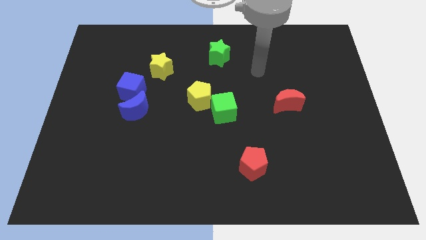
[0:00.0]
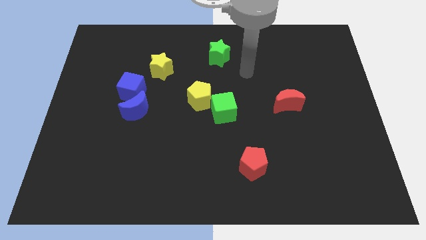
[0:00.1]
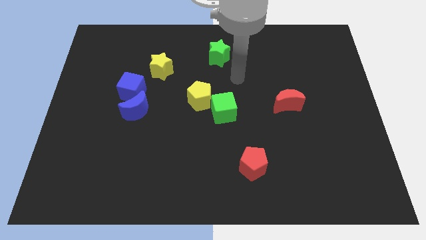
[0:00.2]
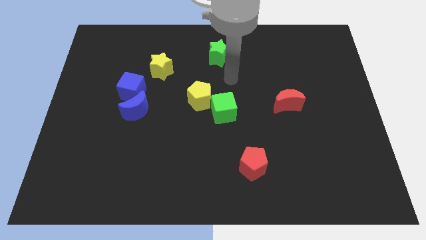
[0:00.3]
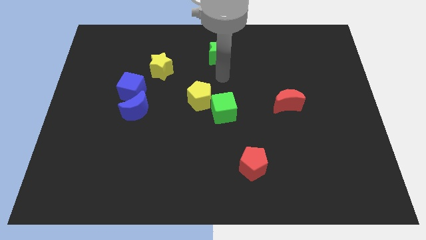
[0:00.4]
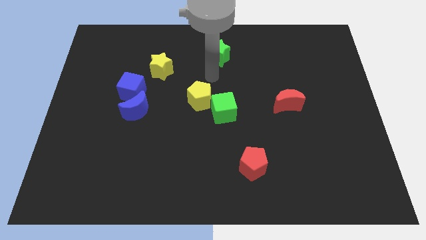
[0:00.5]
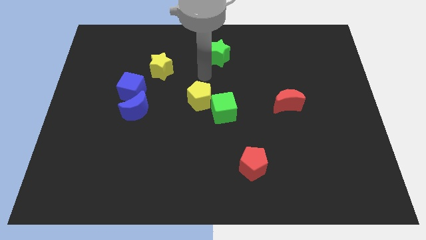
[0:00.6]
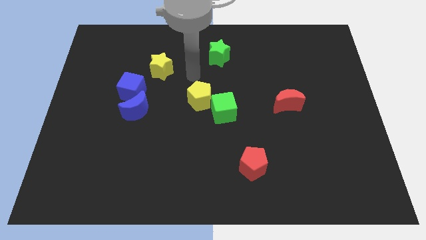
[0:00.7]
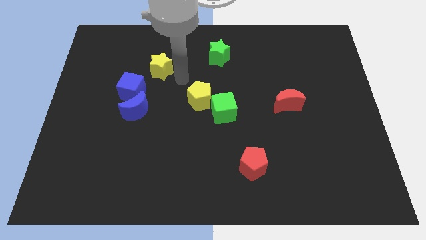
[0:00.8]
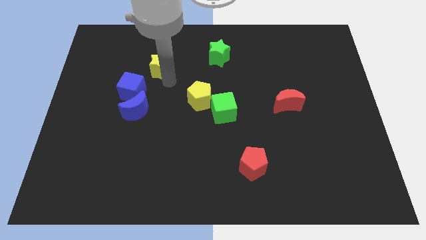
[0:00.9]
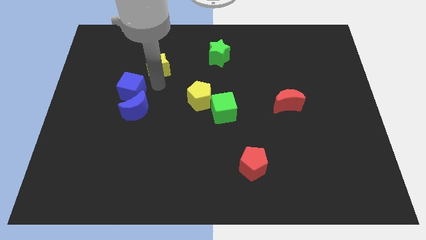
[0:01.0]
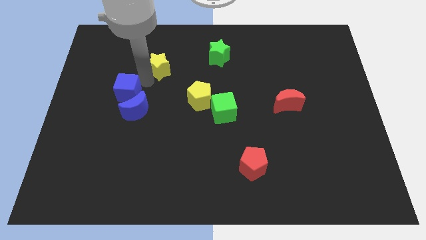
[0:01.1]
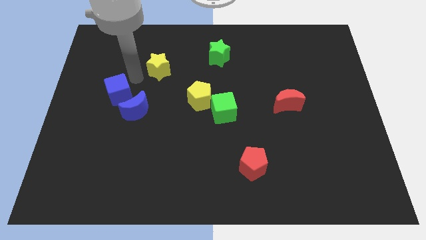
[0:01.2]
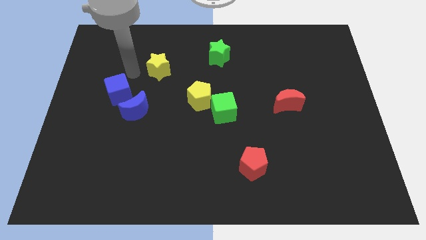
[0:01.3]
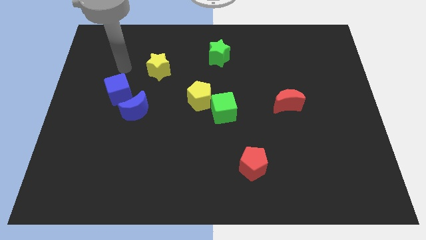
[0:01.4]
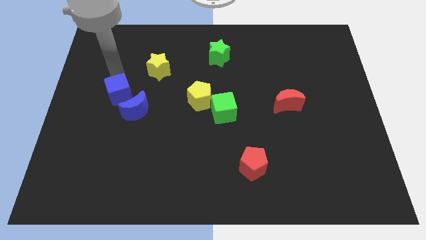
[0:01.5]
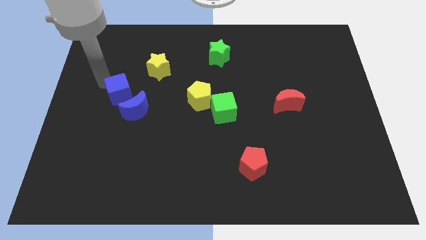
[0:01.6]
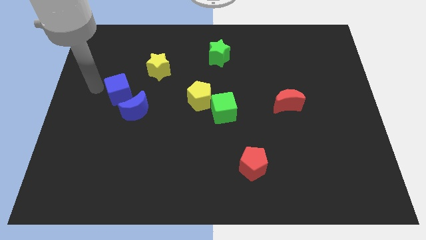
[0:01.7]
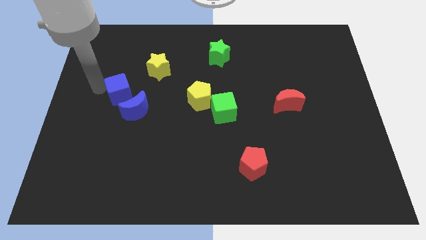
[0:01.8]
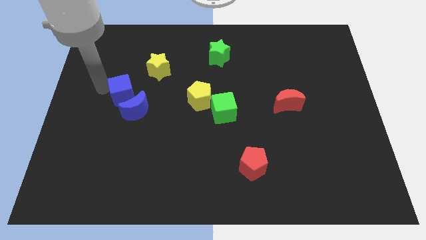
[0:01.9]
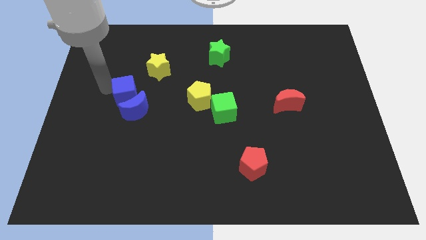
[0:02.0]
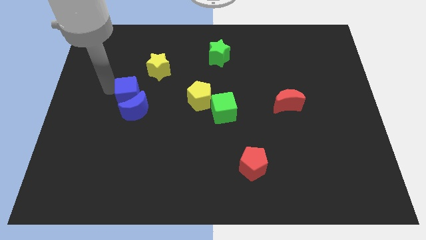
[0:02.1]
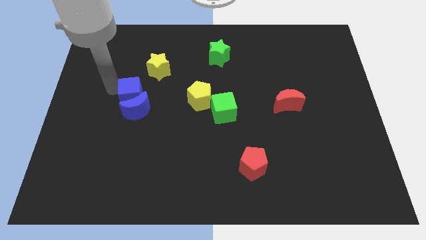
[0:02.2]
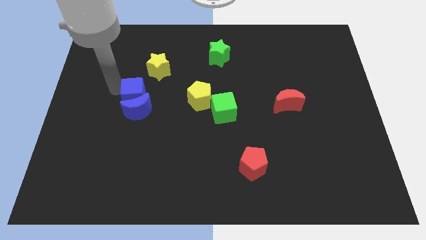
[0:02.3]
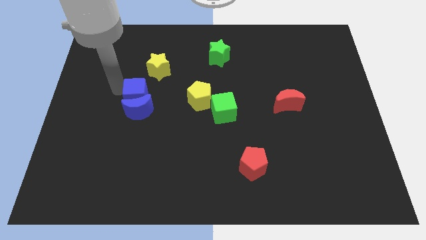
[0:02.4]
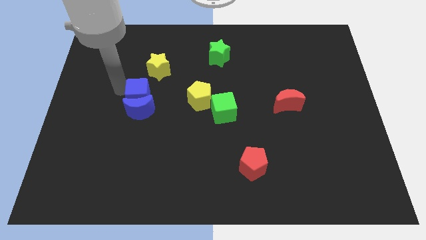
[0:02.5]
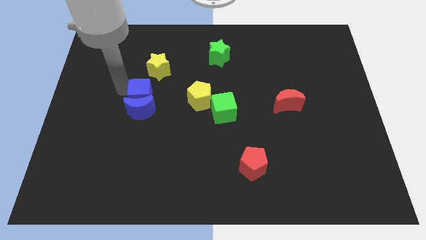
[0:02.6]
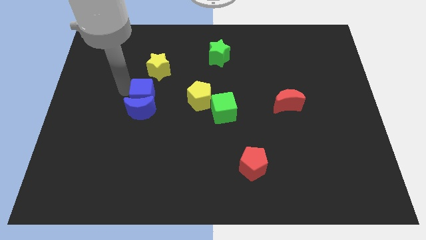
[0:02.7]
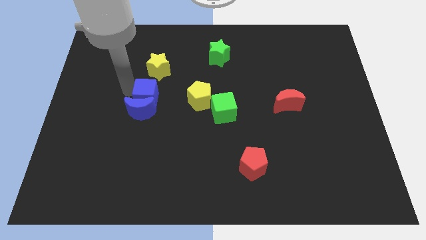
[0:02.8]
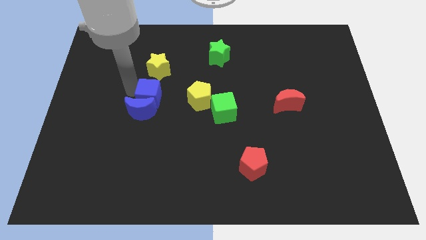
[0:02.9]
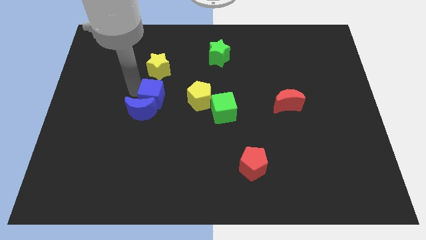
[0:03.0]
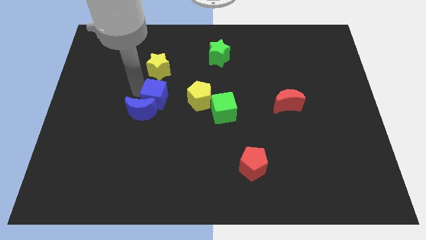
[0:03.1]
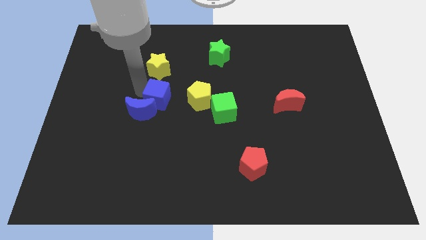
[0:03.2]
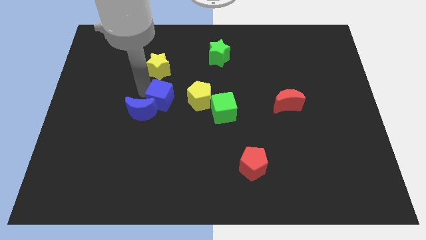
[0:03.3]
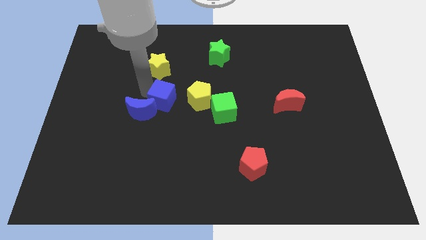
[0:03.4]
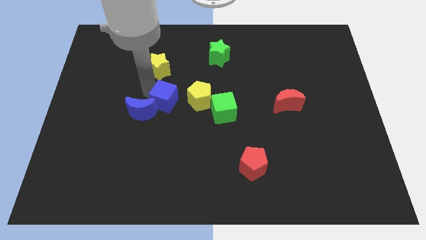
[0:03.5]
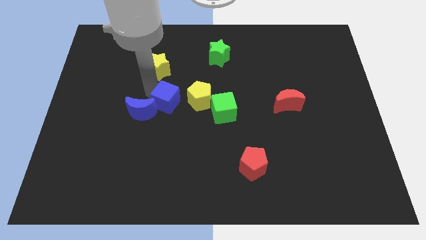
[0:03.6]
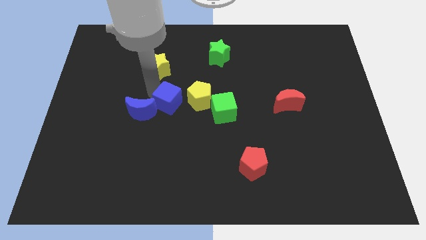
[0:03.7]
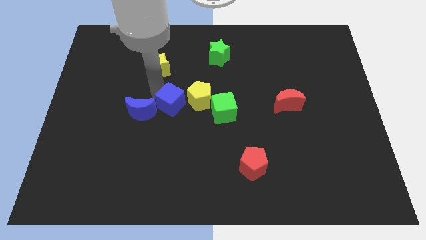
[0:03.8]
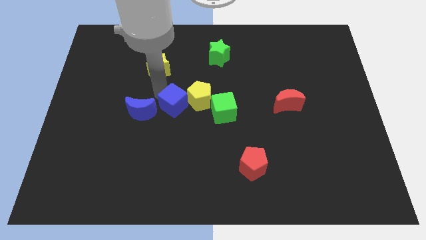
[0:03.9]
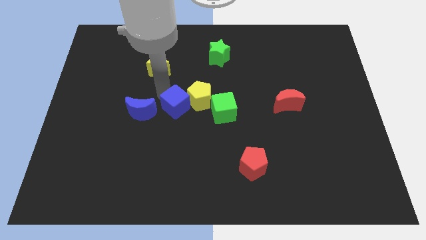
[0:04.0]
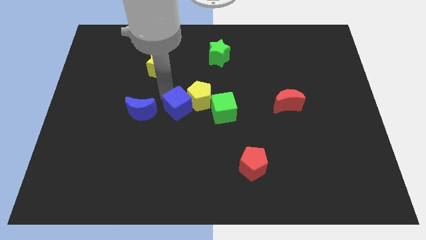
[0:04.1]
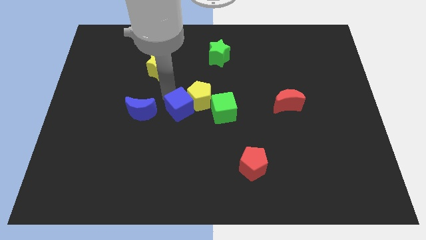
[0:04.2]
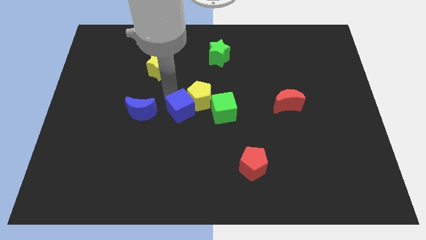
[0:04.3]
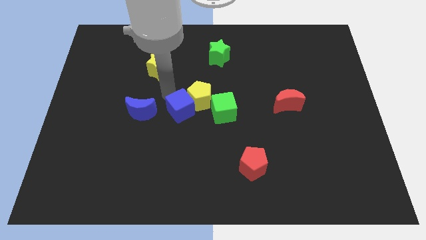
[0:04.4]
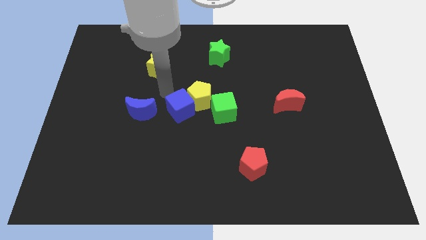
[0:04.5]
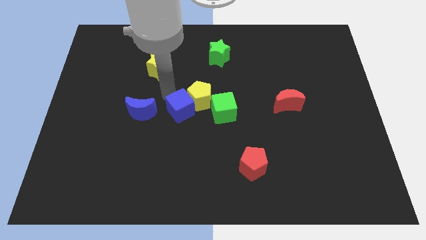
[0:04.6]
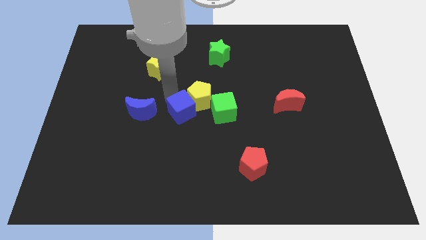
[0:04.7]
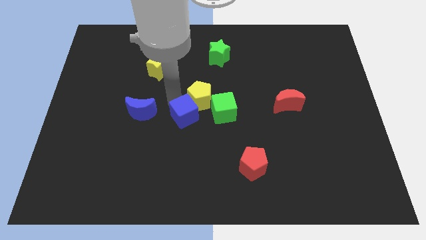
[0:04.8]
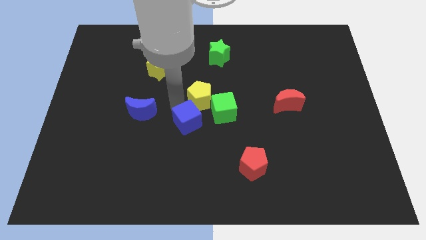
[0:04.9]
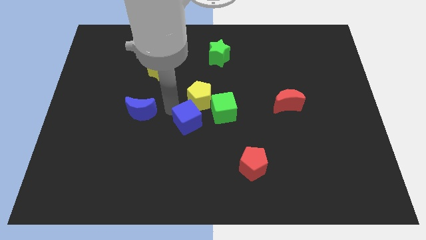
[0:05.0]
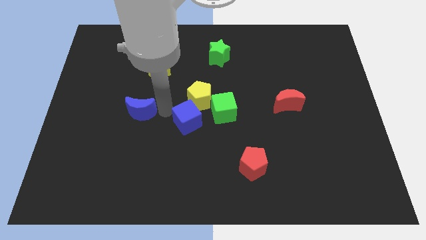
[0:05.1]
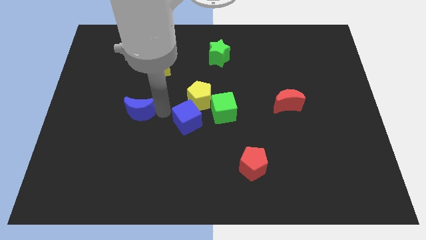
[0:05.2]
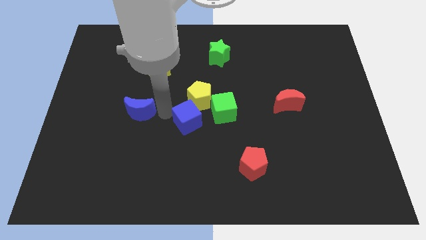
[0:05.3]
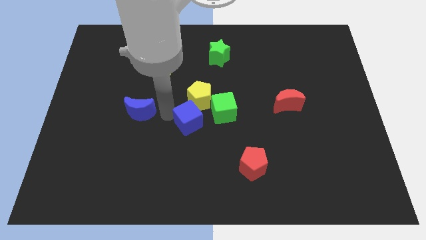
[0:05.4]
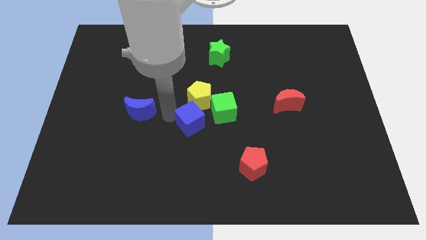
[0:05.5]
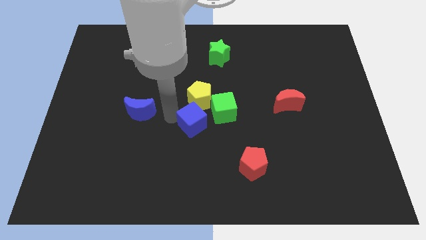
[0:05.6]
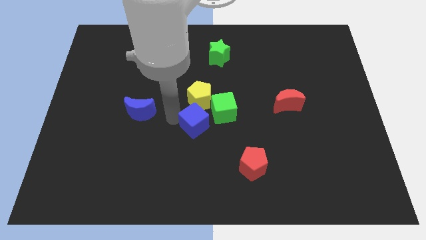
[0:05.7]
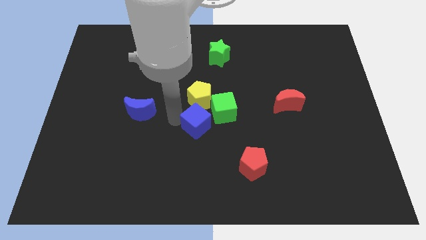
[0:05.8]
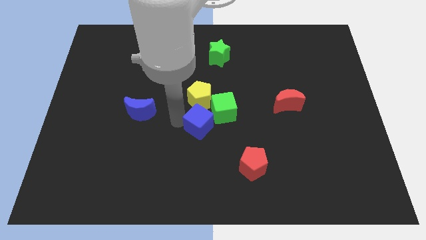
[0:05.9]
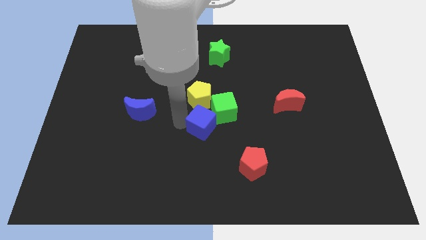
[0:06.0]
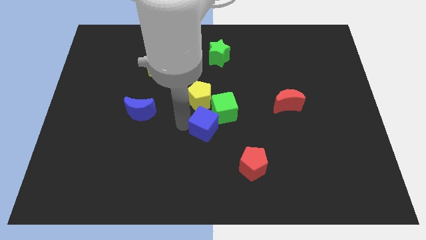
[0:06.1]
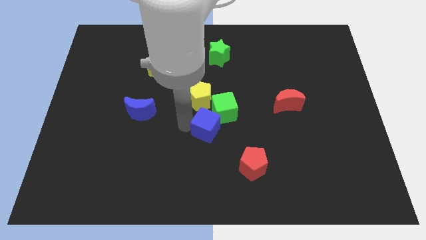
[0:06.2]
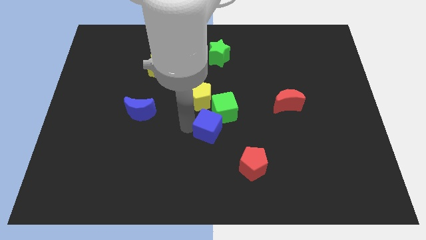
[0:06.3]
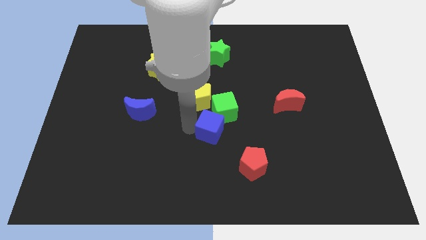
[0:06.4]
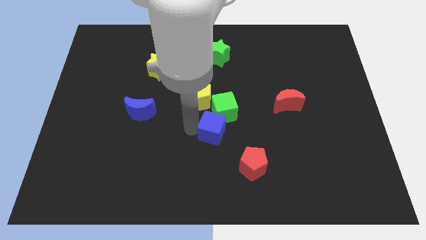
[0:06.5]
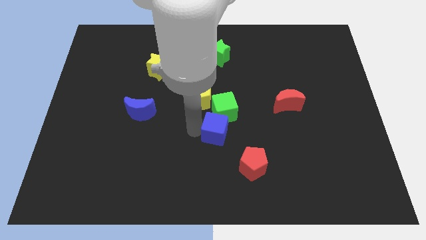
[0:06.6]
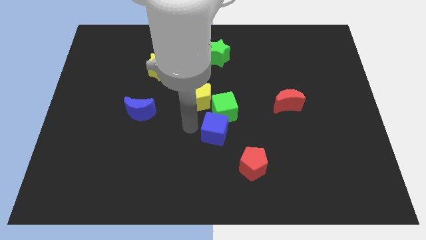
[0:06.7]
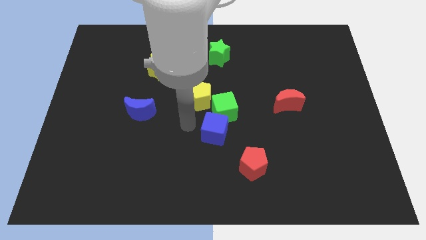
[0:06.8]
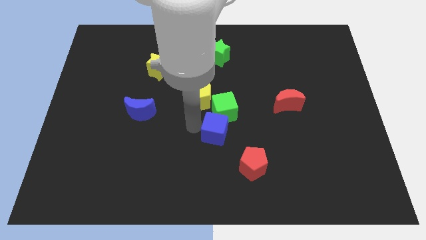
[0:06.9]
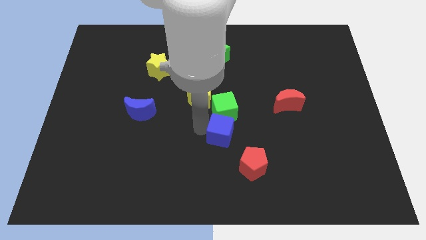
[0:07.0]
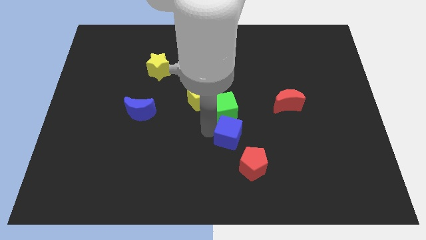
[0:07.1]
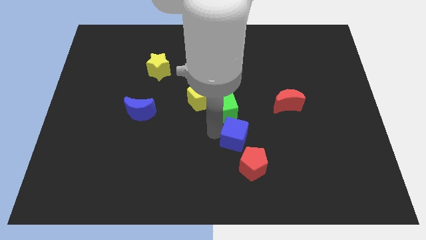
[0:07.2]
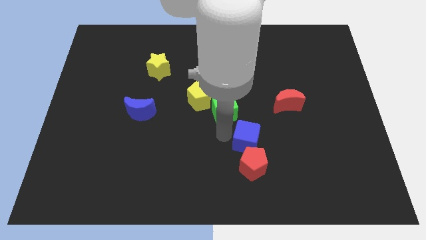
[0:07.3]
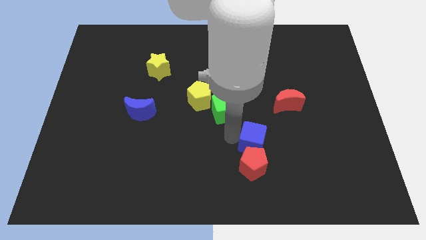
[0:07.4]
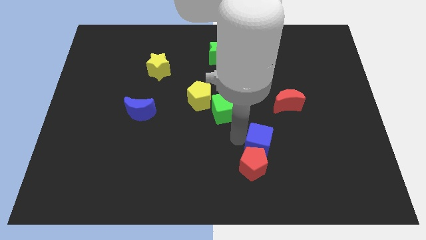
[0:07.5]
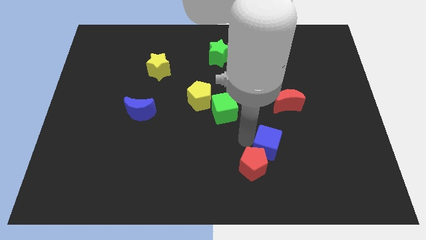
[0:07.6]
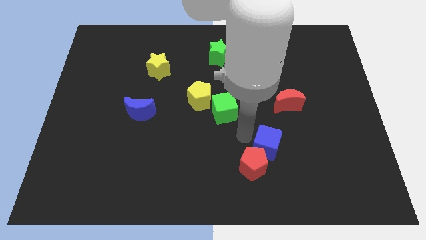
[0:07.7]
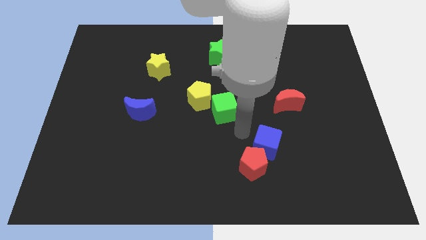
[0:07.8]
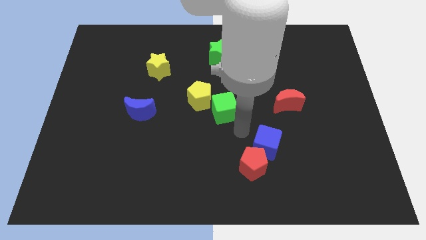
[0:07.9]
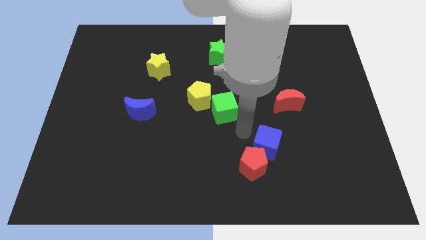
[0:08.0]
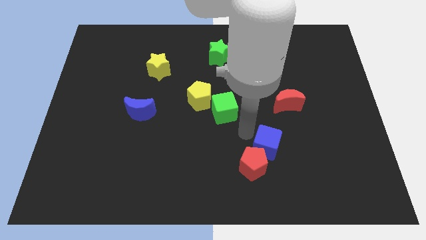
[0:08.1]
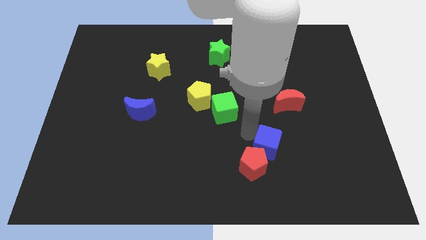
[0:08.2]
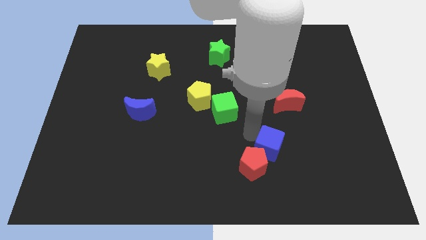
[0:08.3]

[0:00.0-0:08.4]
put the blue cube just right of the red pentagon
